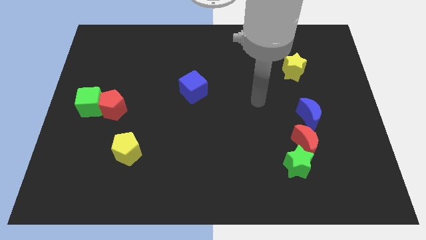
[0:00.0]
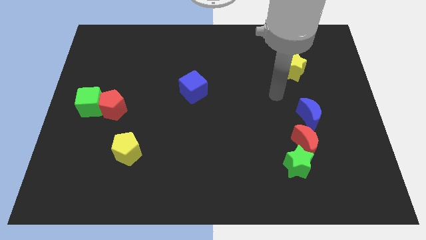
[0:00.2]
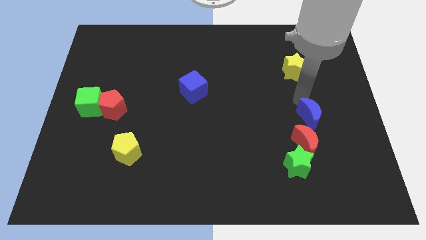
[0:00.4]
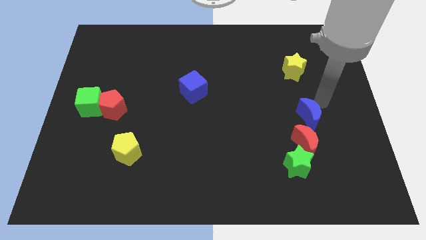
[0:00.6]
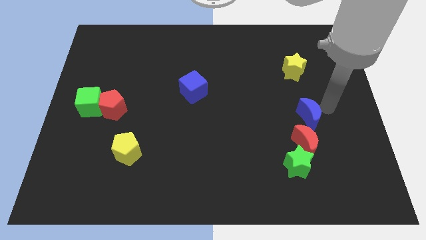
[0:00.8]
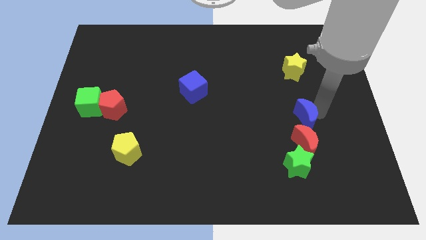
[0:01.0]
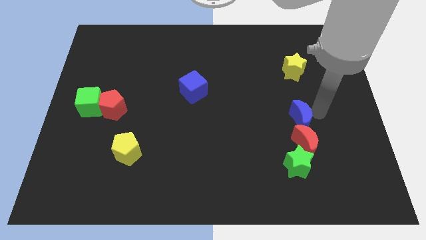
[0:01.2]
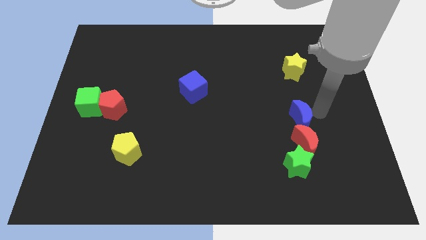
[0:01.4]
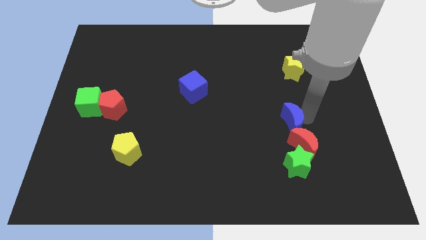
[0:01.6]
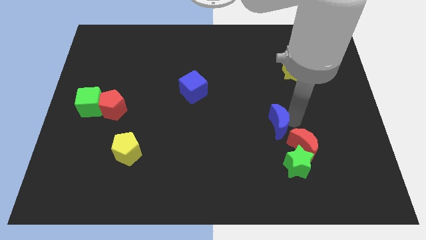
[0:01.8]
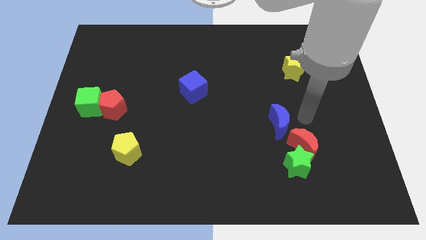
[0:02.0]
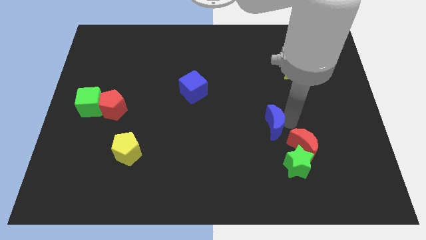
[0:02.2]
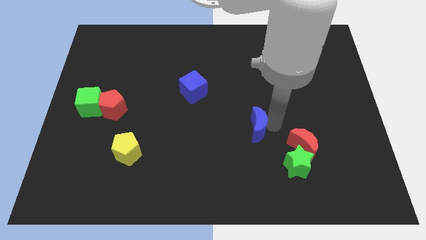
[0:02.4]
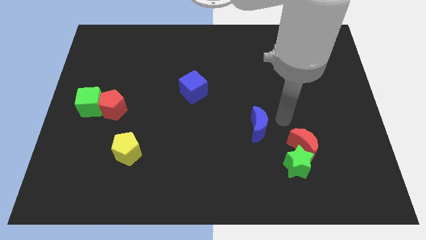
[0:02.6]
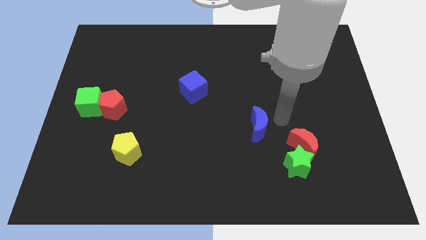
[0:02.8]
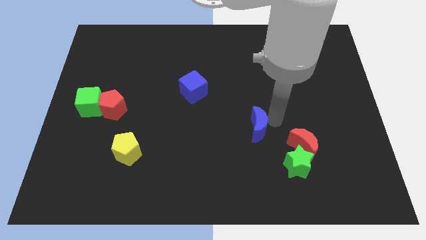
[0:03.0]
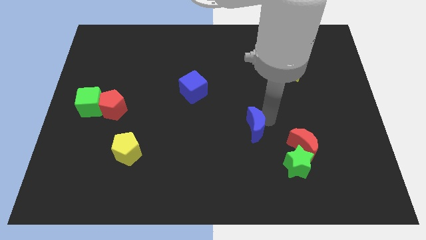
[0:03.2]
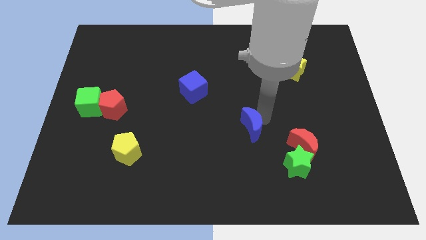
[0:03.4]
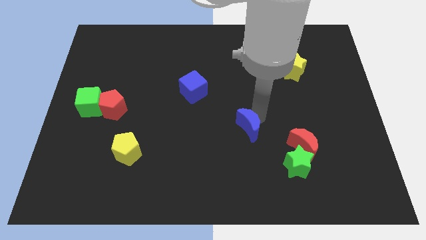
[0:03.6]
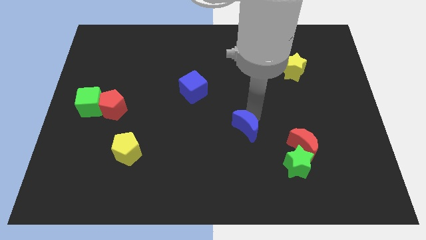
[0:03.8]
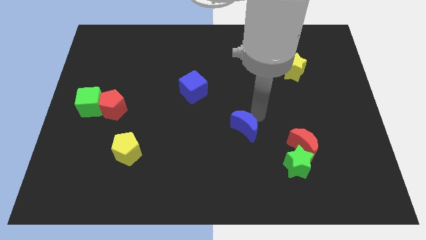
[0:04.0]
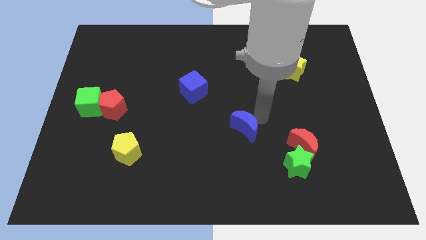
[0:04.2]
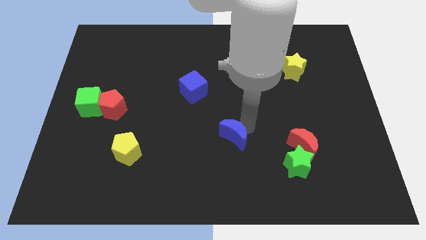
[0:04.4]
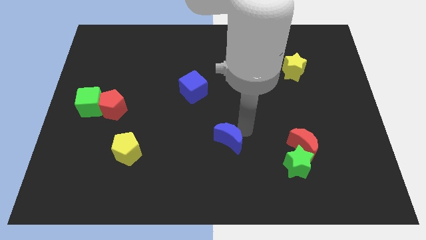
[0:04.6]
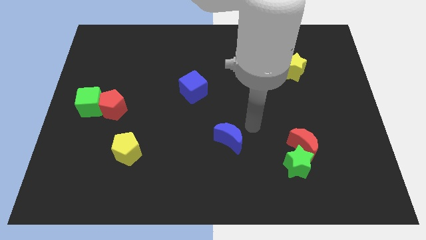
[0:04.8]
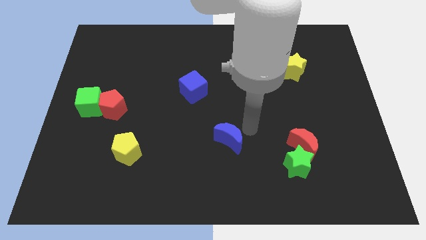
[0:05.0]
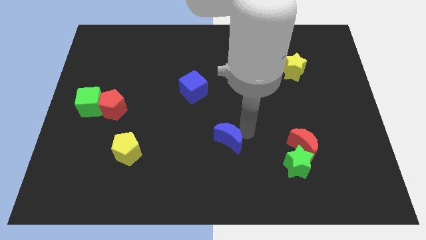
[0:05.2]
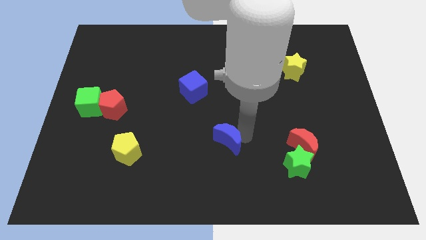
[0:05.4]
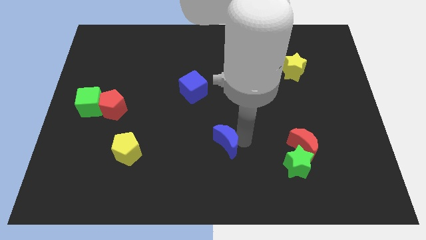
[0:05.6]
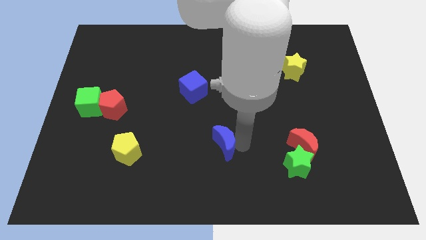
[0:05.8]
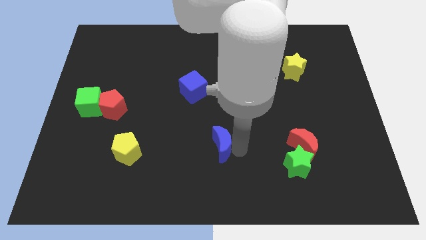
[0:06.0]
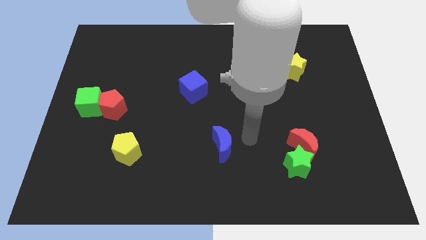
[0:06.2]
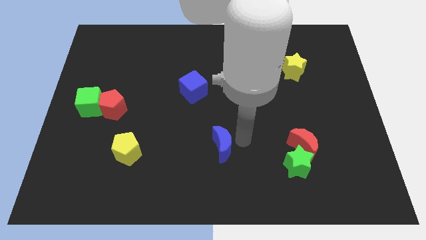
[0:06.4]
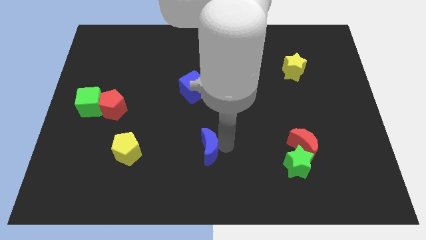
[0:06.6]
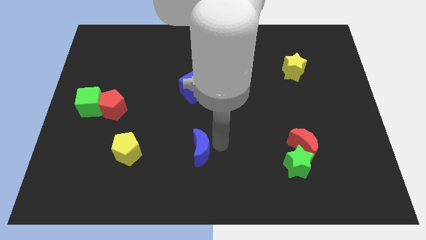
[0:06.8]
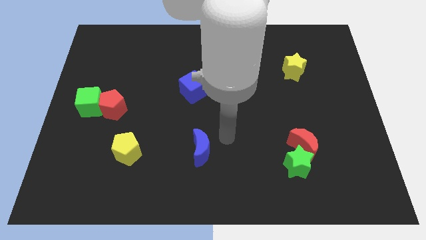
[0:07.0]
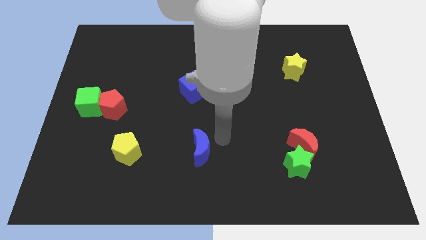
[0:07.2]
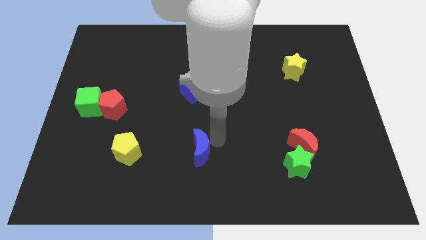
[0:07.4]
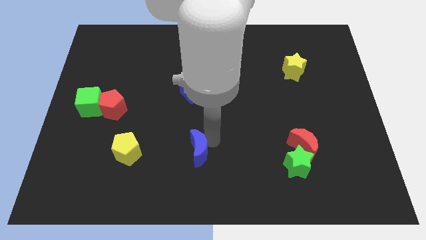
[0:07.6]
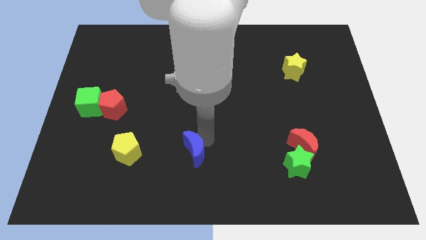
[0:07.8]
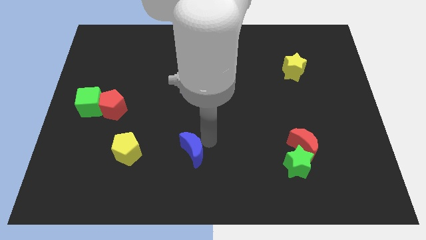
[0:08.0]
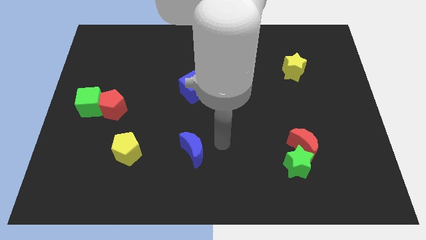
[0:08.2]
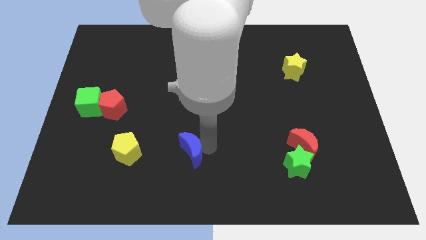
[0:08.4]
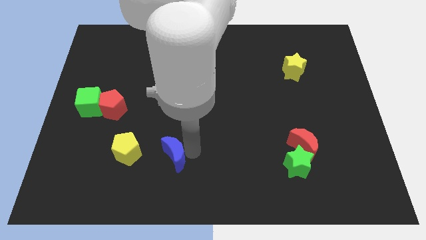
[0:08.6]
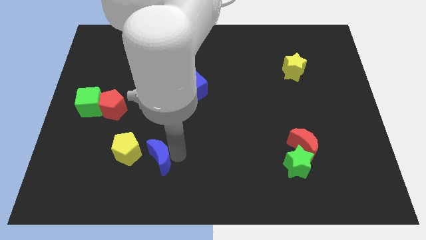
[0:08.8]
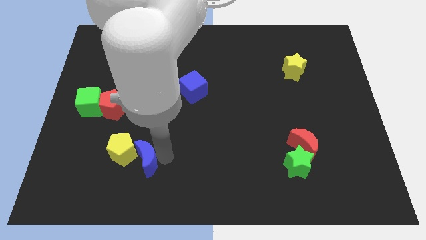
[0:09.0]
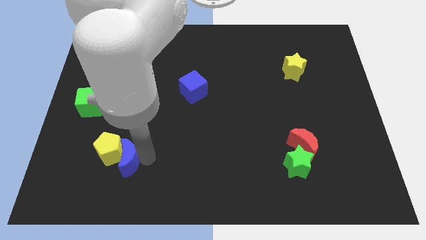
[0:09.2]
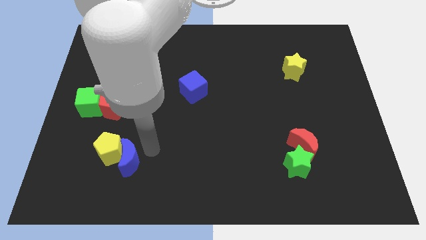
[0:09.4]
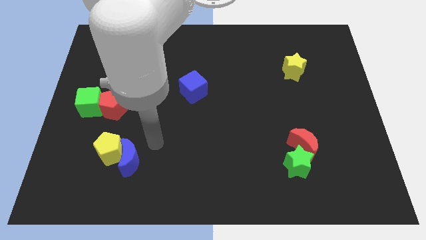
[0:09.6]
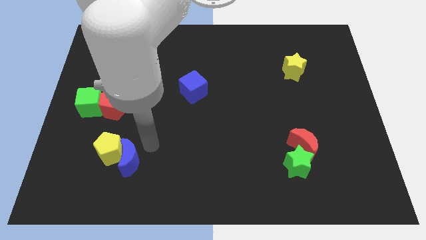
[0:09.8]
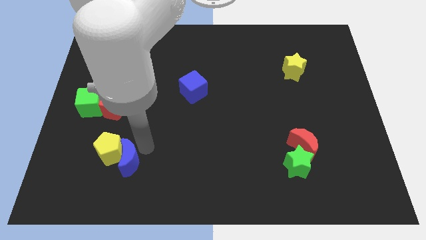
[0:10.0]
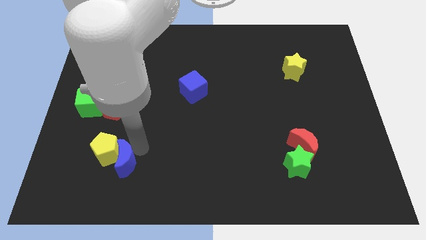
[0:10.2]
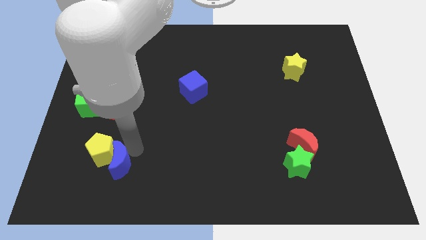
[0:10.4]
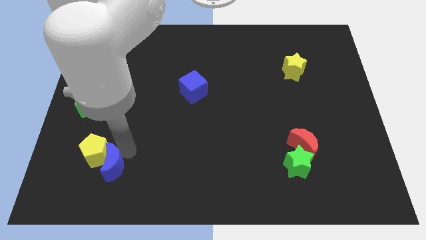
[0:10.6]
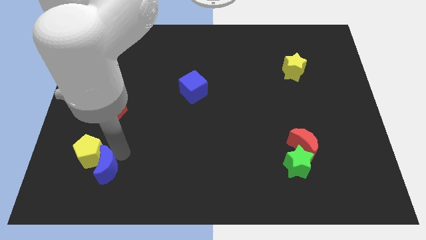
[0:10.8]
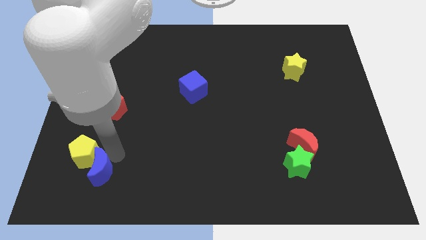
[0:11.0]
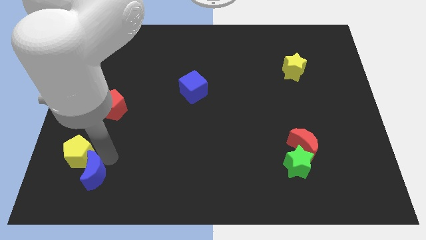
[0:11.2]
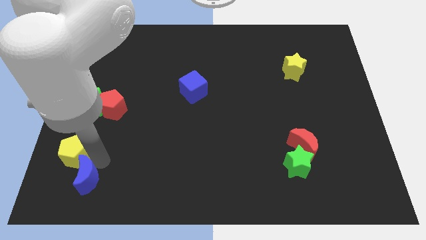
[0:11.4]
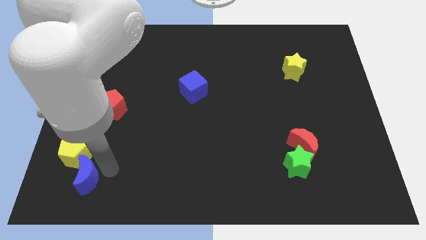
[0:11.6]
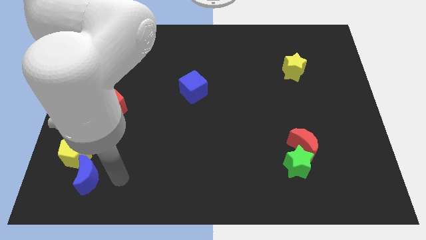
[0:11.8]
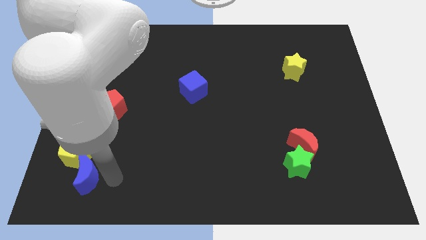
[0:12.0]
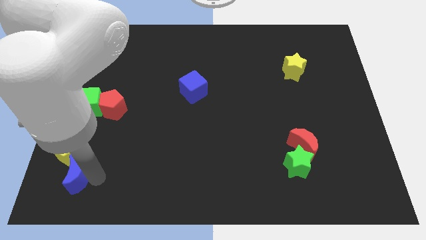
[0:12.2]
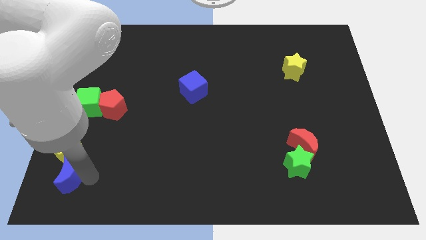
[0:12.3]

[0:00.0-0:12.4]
slide the blue moon to the bottom left corner

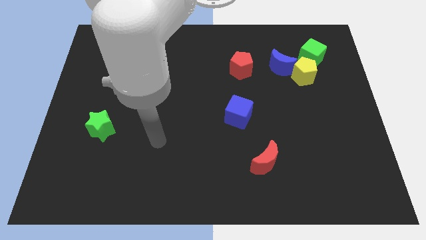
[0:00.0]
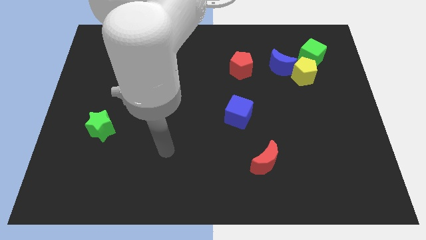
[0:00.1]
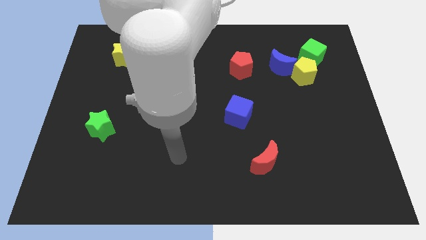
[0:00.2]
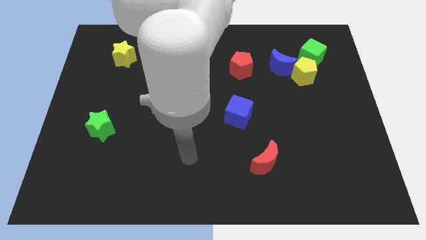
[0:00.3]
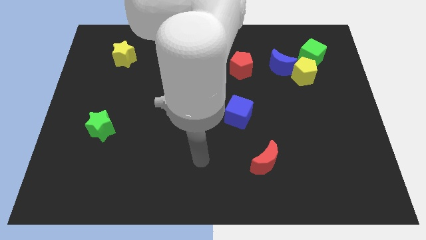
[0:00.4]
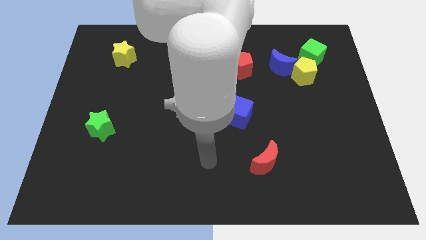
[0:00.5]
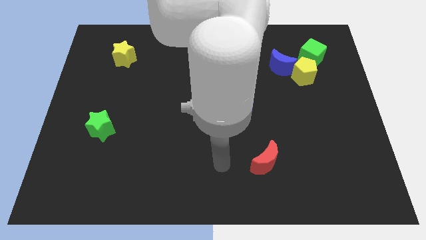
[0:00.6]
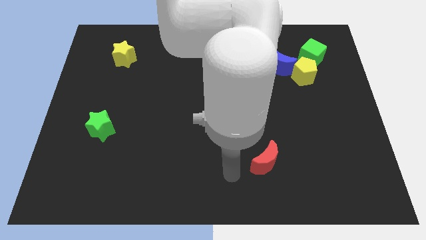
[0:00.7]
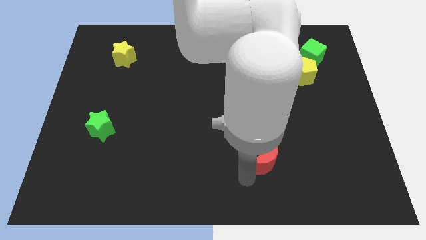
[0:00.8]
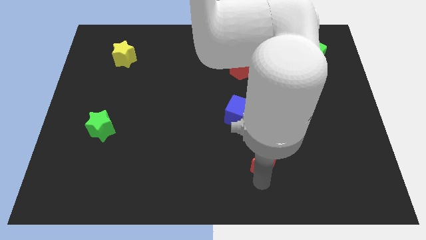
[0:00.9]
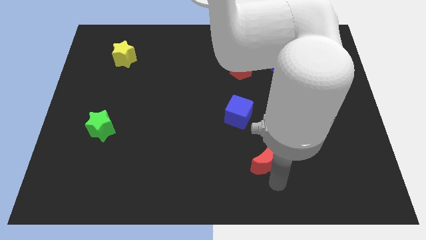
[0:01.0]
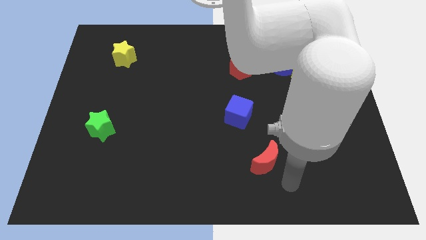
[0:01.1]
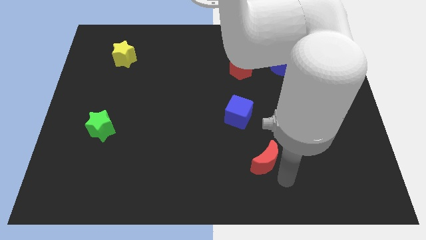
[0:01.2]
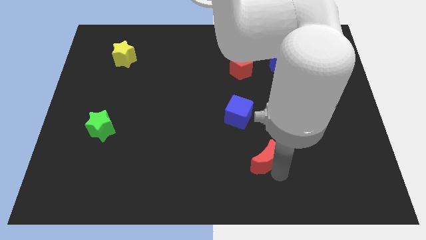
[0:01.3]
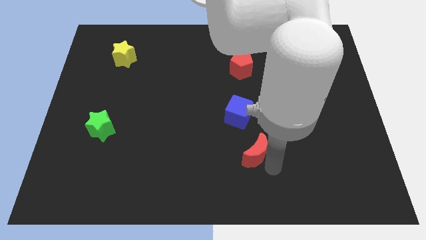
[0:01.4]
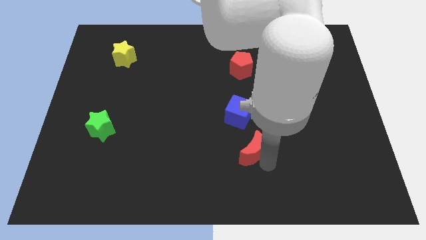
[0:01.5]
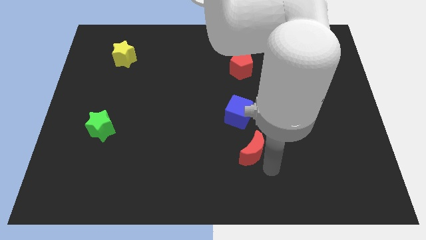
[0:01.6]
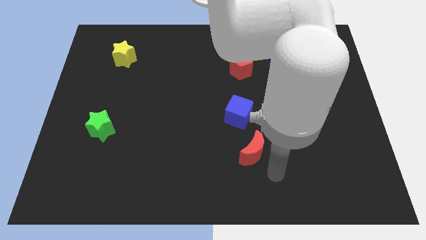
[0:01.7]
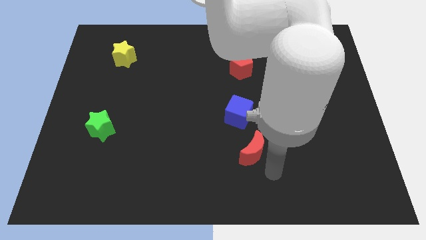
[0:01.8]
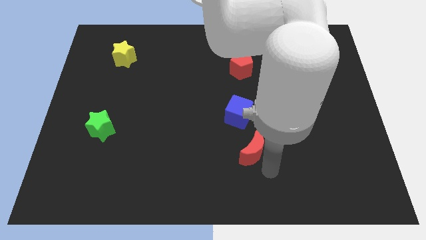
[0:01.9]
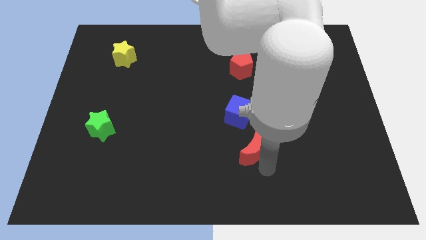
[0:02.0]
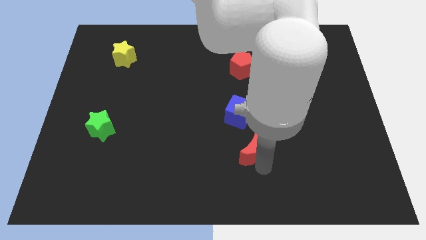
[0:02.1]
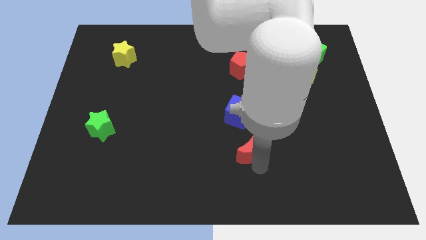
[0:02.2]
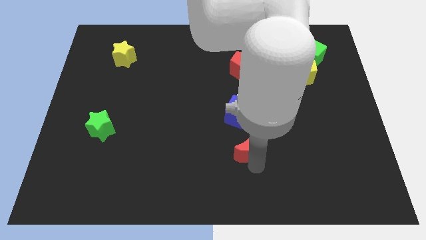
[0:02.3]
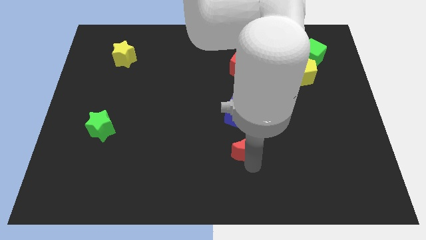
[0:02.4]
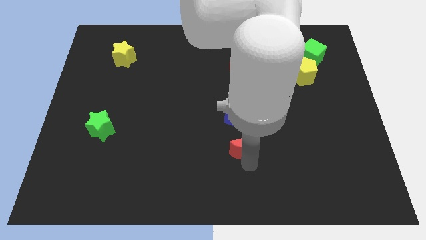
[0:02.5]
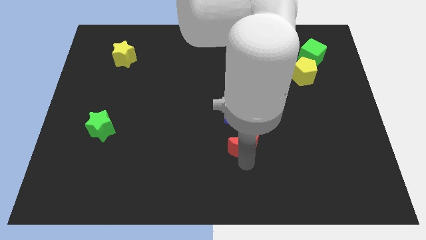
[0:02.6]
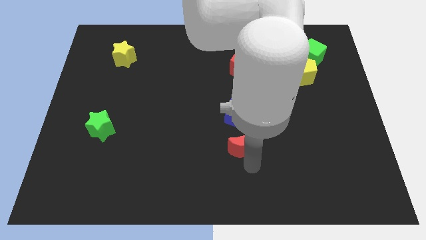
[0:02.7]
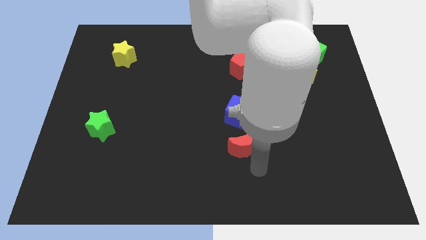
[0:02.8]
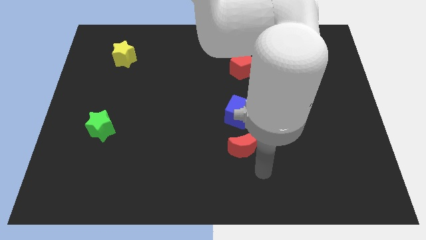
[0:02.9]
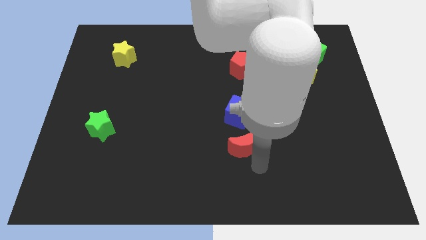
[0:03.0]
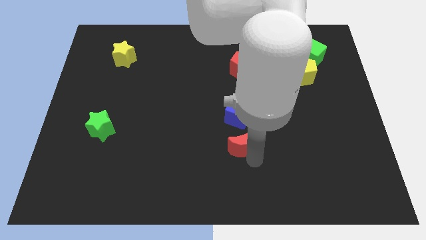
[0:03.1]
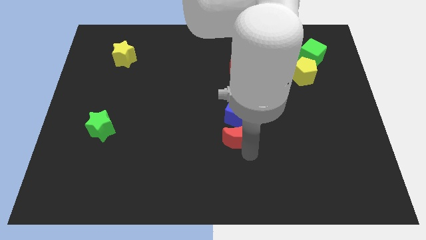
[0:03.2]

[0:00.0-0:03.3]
move the red moon to the center of the board
